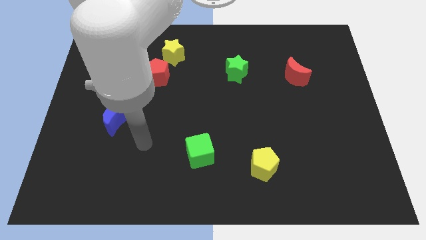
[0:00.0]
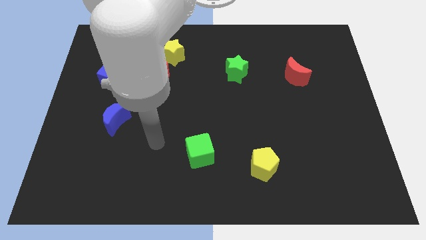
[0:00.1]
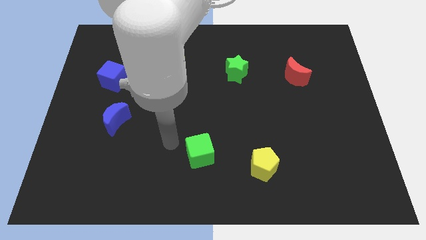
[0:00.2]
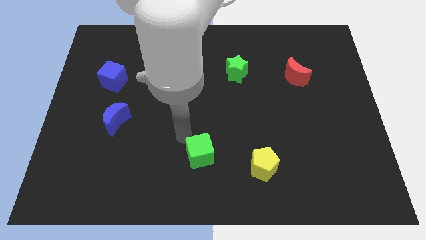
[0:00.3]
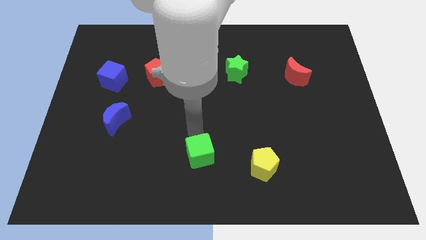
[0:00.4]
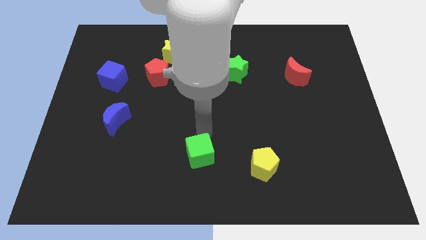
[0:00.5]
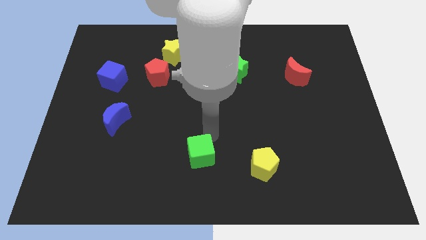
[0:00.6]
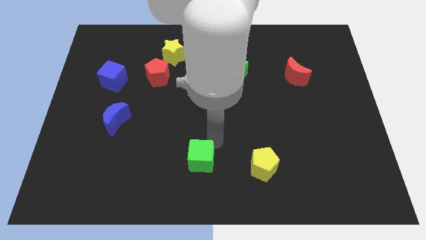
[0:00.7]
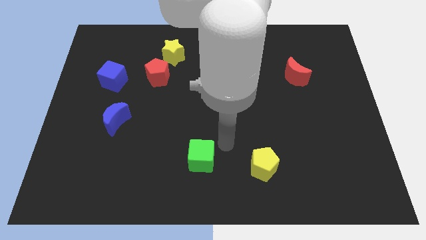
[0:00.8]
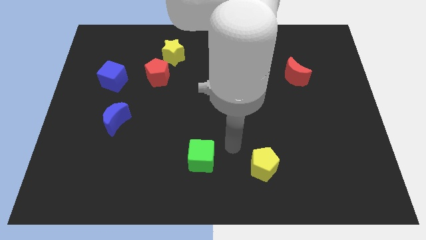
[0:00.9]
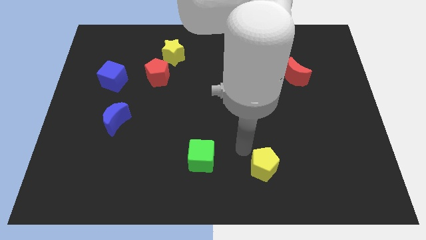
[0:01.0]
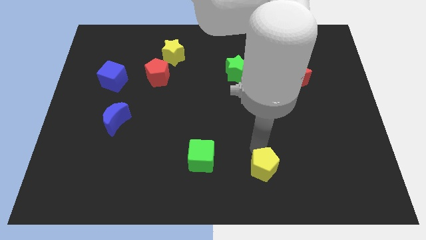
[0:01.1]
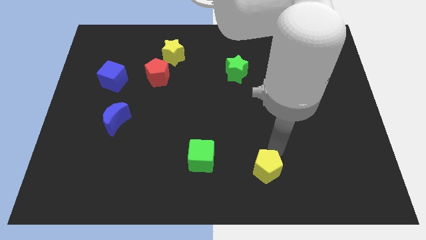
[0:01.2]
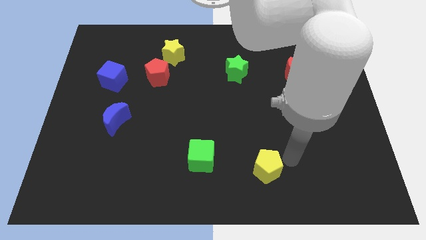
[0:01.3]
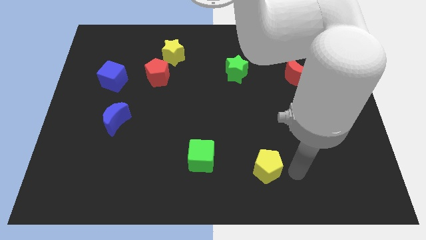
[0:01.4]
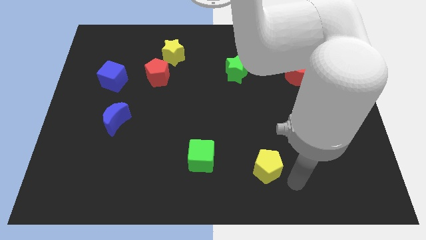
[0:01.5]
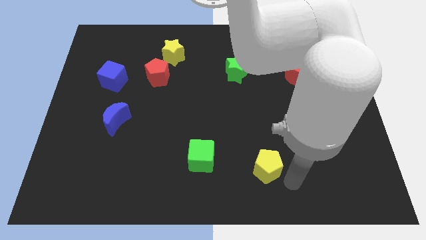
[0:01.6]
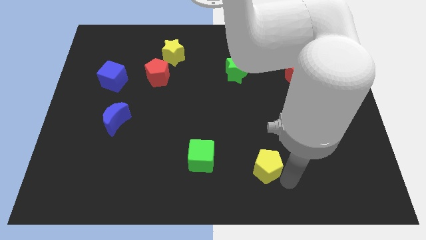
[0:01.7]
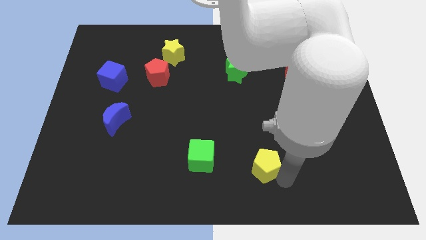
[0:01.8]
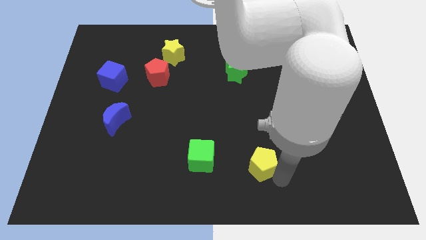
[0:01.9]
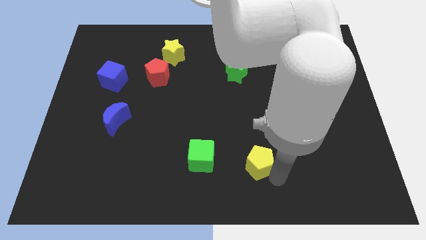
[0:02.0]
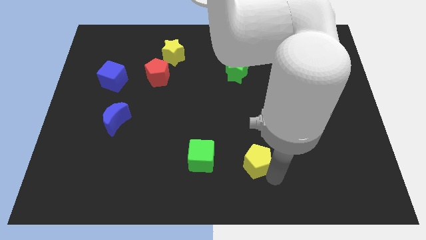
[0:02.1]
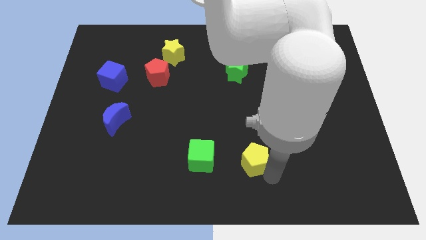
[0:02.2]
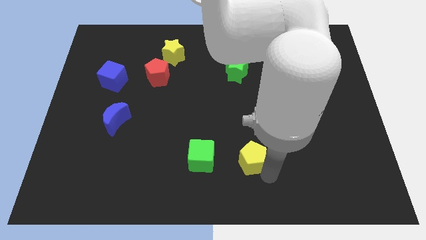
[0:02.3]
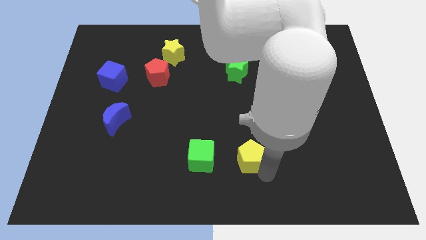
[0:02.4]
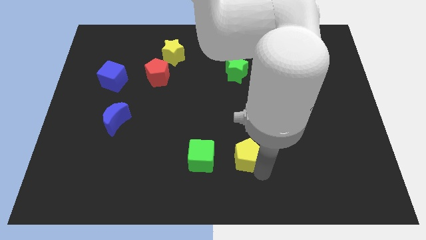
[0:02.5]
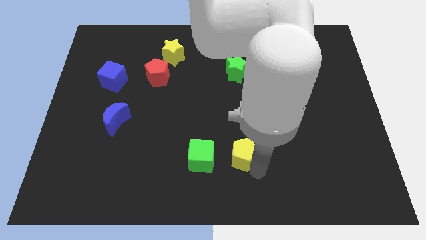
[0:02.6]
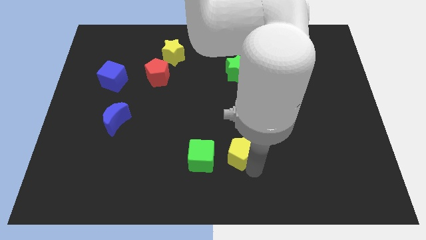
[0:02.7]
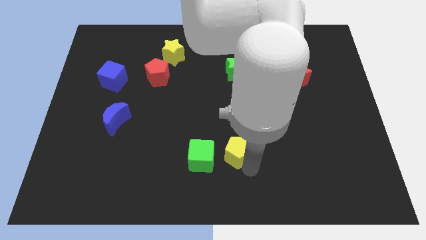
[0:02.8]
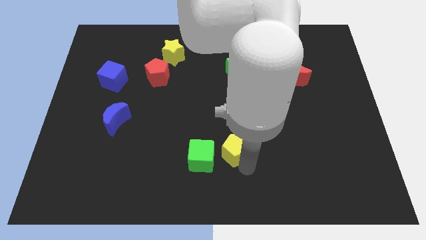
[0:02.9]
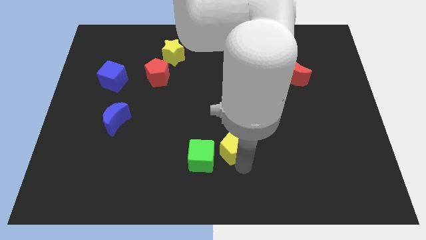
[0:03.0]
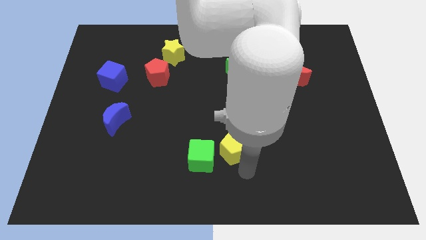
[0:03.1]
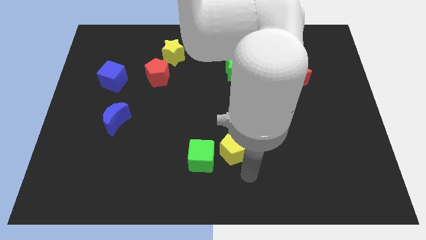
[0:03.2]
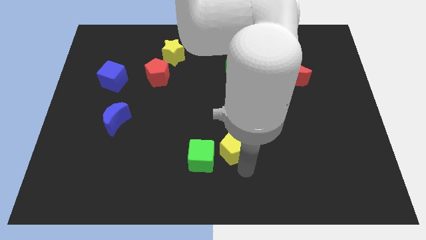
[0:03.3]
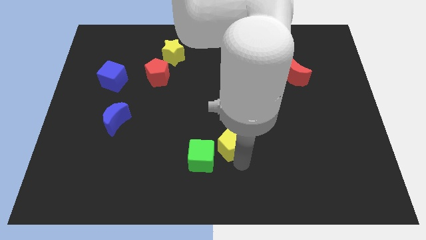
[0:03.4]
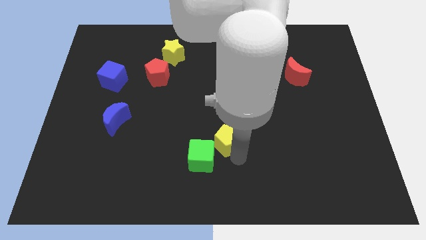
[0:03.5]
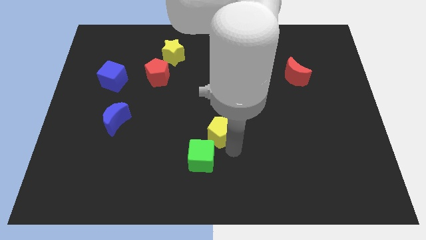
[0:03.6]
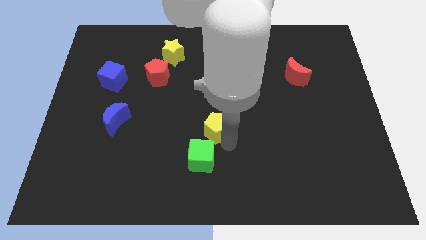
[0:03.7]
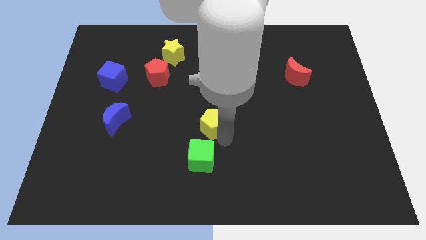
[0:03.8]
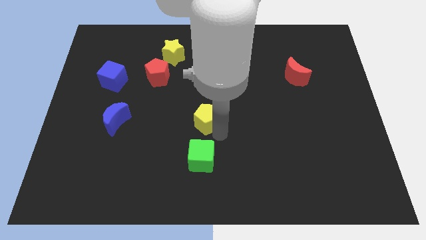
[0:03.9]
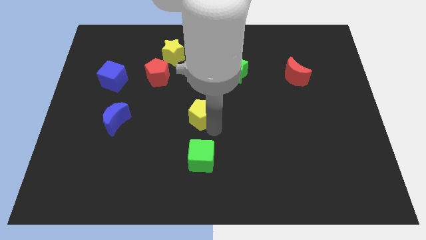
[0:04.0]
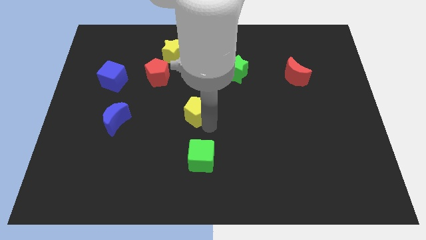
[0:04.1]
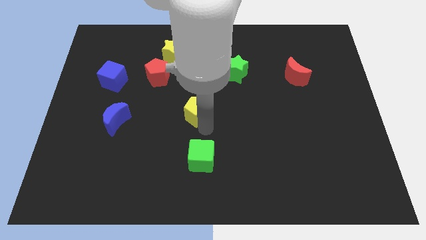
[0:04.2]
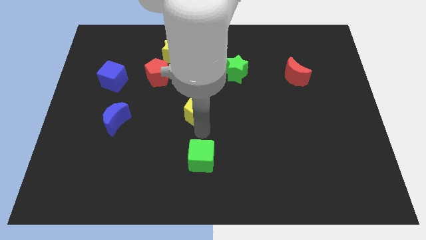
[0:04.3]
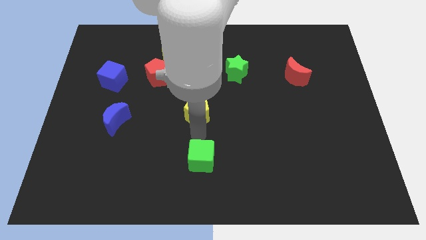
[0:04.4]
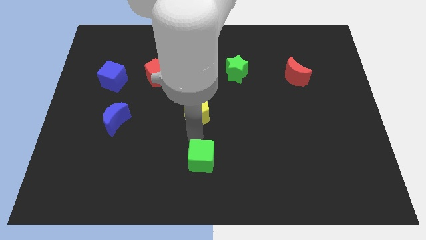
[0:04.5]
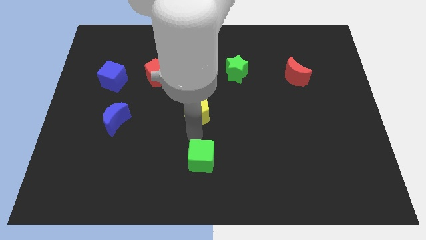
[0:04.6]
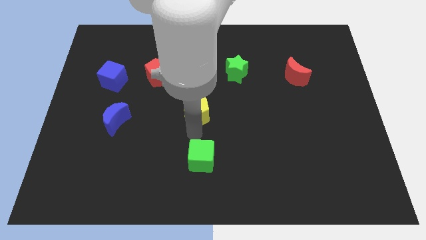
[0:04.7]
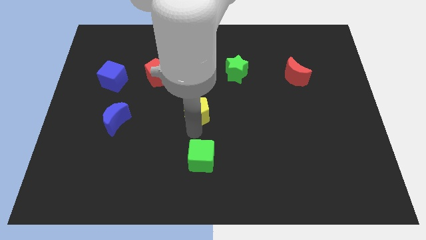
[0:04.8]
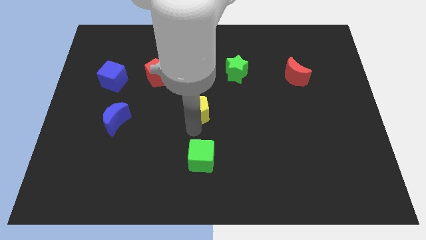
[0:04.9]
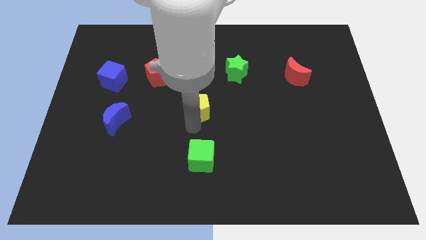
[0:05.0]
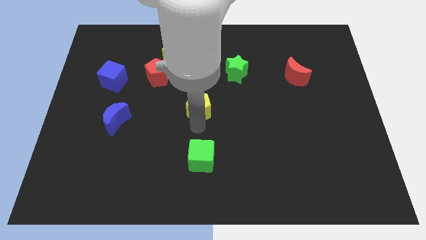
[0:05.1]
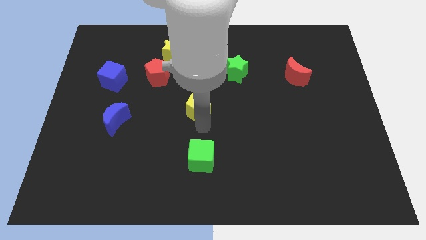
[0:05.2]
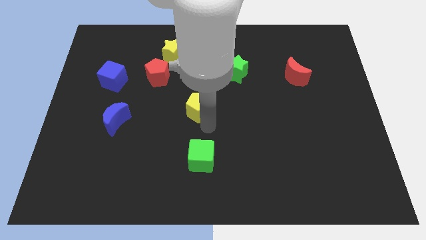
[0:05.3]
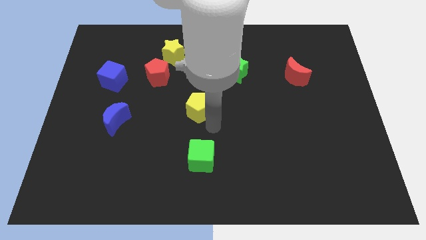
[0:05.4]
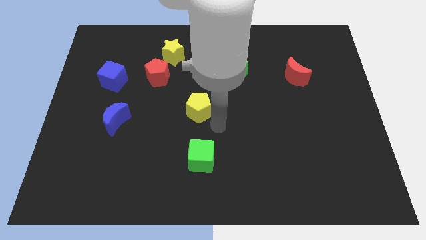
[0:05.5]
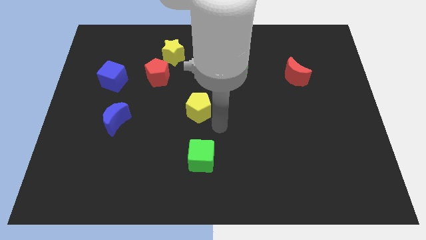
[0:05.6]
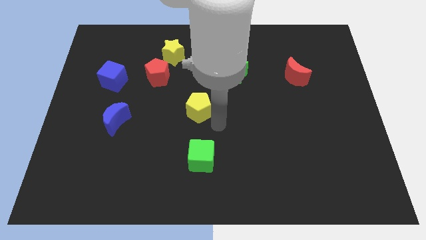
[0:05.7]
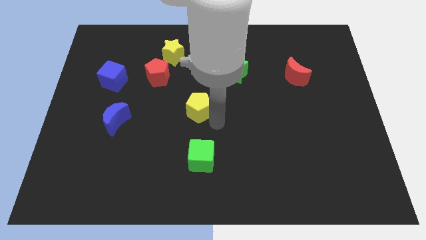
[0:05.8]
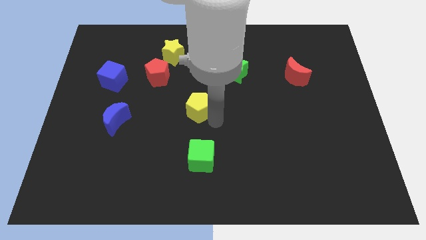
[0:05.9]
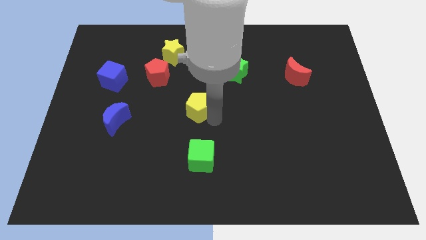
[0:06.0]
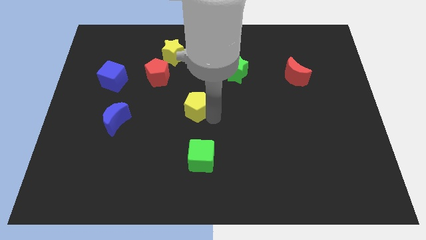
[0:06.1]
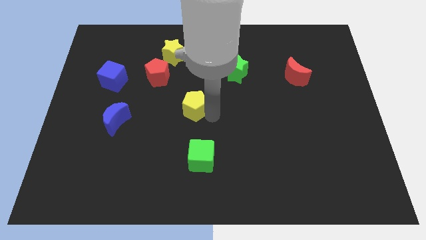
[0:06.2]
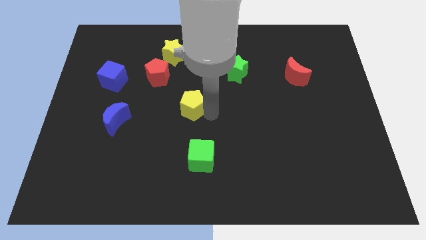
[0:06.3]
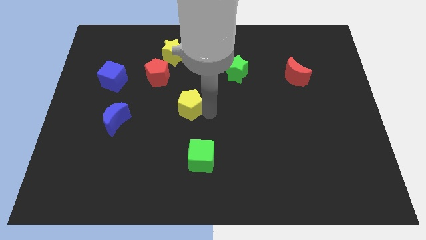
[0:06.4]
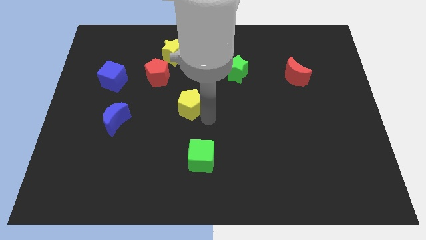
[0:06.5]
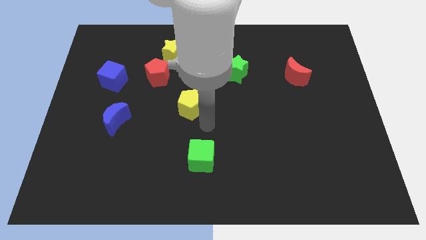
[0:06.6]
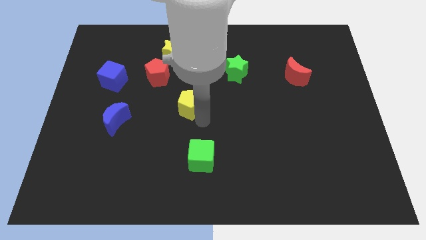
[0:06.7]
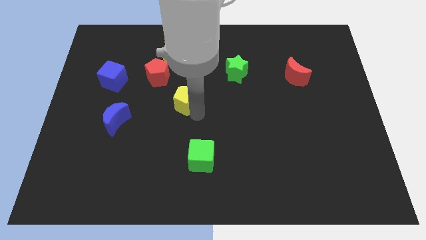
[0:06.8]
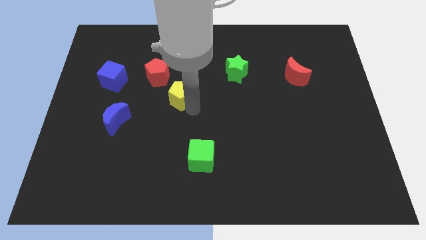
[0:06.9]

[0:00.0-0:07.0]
push the yellow pentagon to the bottom of the yellow star

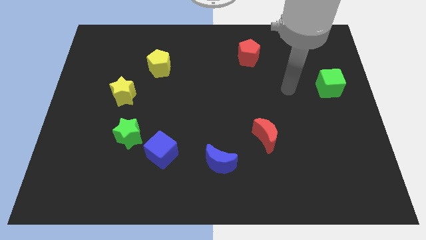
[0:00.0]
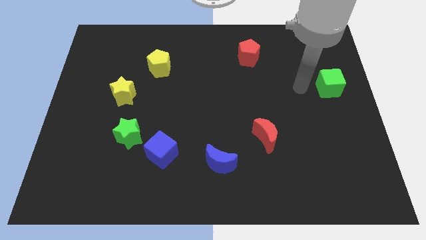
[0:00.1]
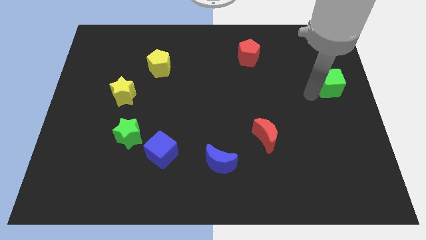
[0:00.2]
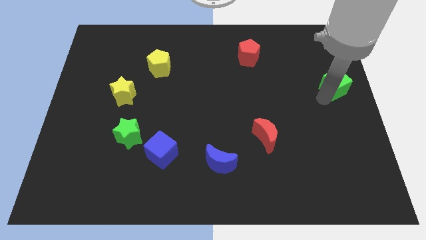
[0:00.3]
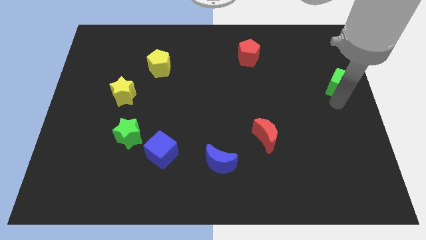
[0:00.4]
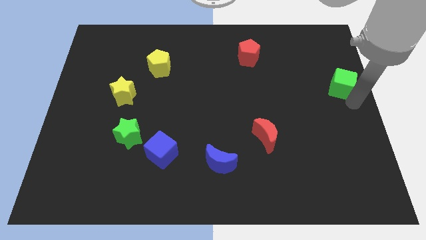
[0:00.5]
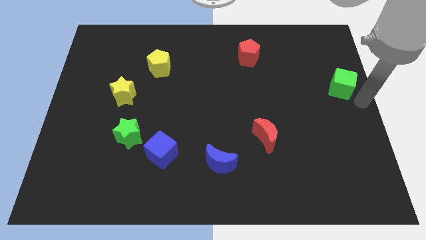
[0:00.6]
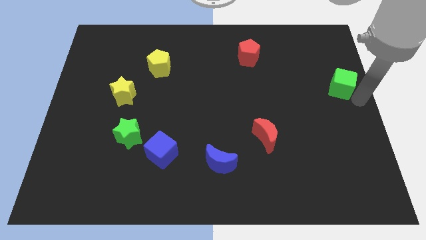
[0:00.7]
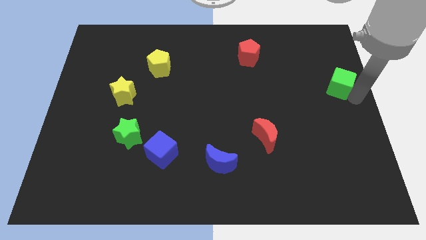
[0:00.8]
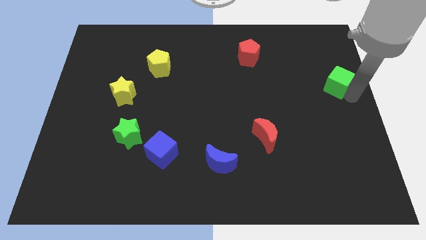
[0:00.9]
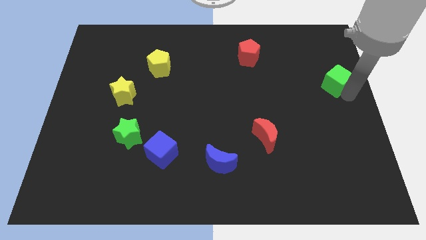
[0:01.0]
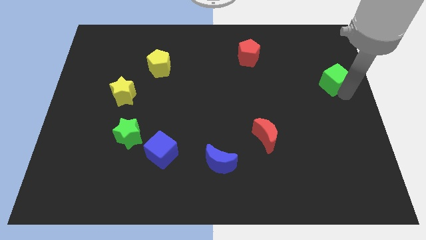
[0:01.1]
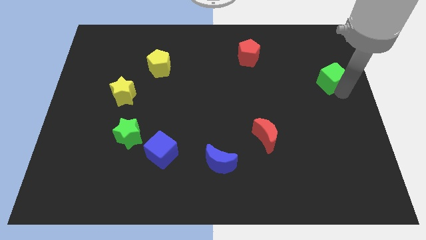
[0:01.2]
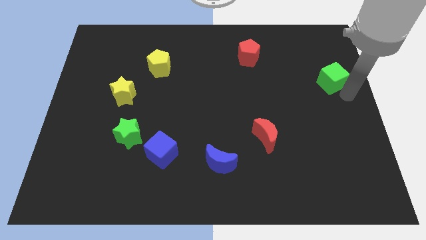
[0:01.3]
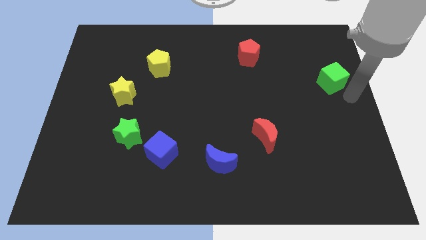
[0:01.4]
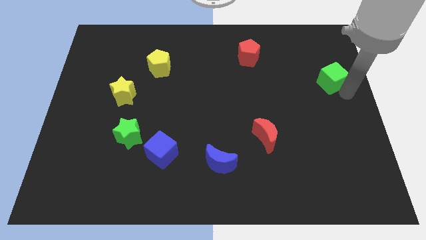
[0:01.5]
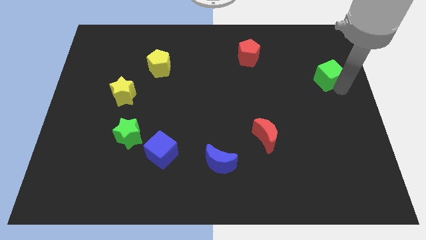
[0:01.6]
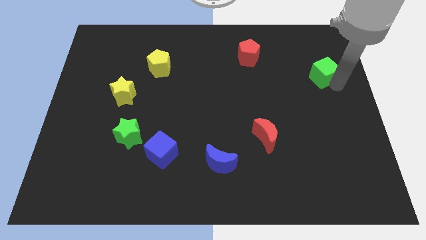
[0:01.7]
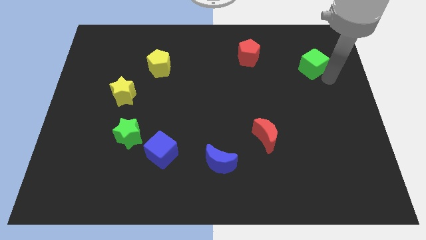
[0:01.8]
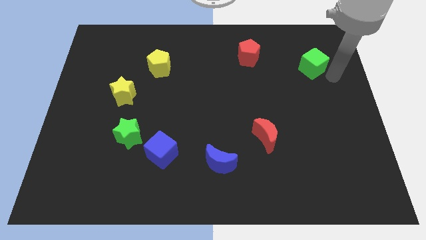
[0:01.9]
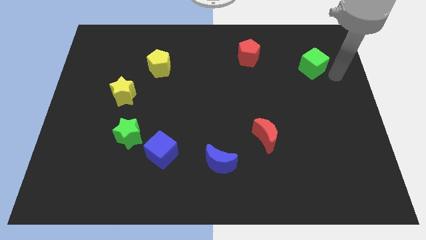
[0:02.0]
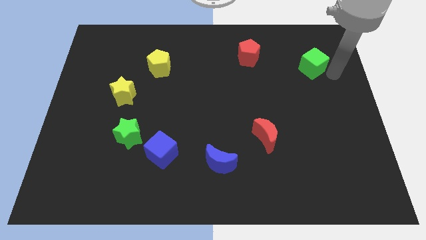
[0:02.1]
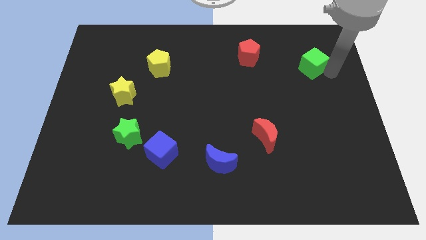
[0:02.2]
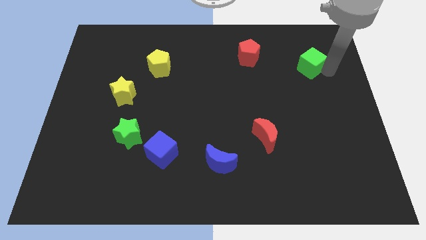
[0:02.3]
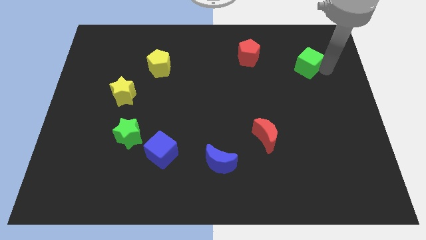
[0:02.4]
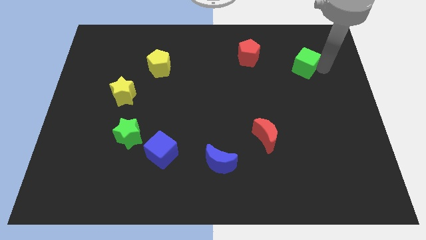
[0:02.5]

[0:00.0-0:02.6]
push the green cube just right of the red pentagon
